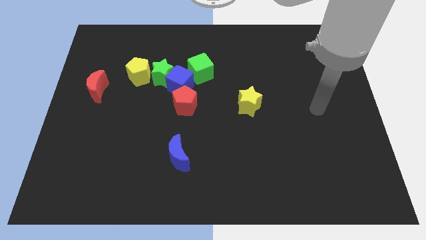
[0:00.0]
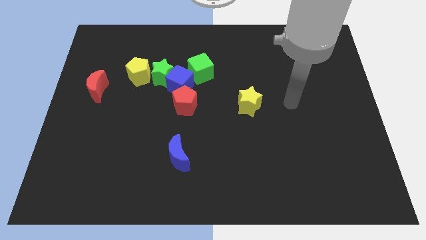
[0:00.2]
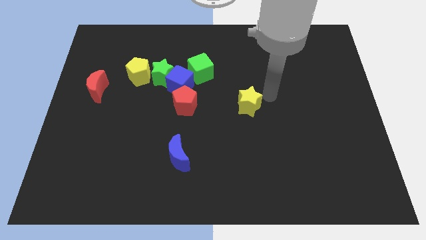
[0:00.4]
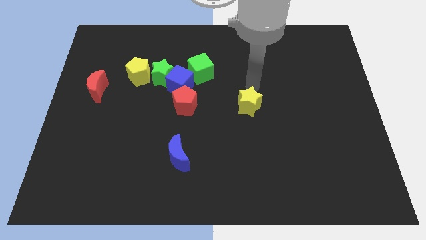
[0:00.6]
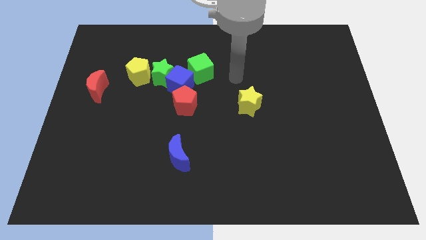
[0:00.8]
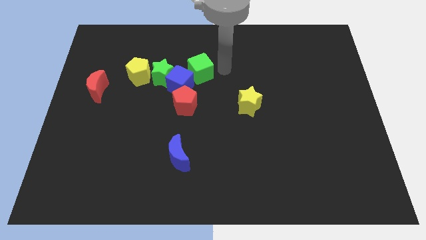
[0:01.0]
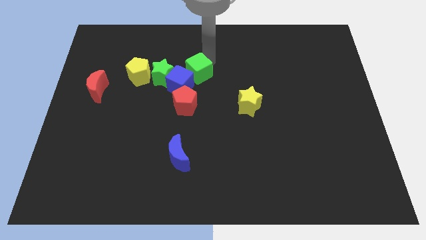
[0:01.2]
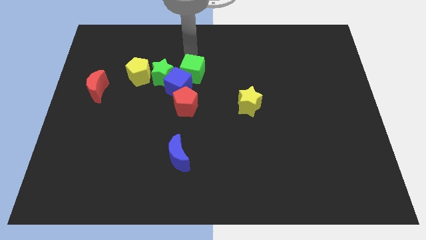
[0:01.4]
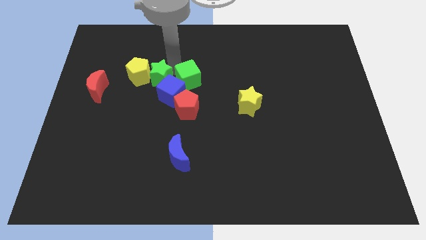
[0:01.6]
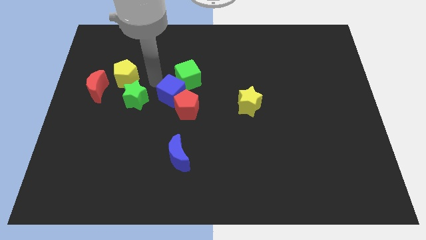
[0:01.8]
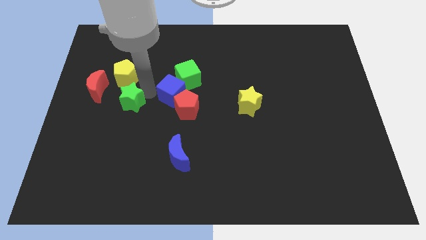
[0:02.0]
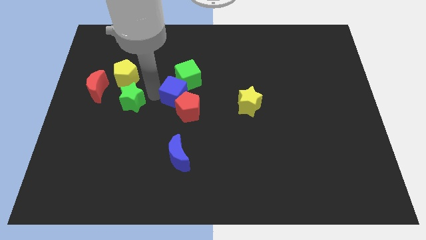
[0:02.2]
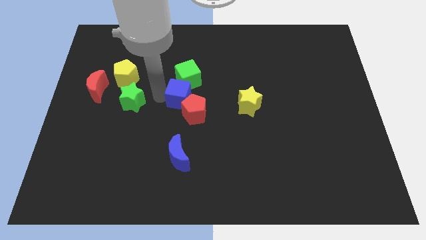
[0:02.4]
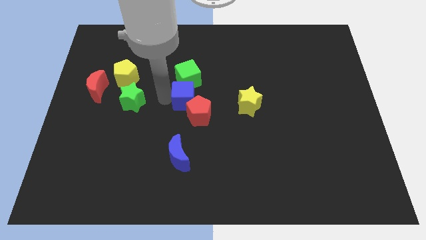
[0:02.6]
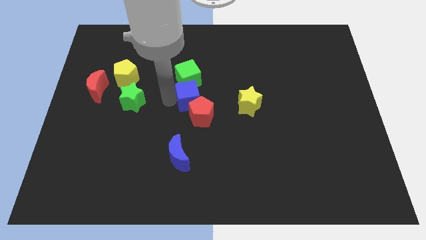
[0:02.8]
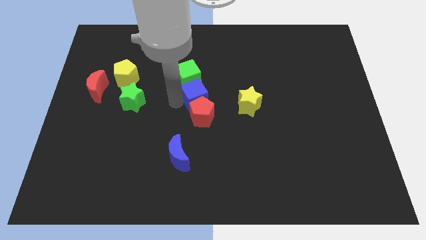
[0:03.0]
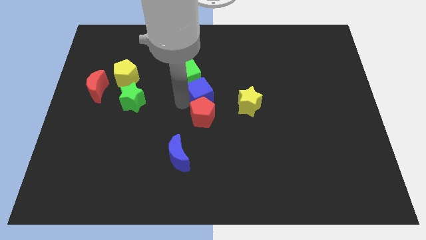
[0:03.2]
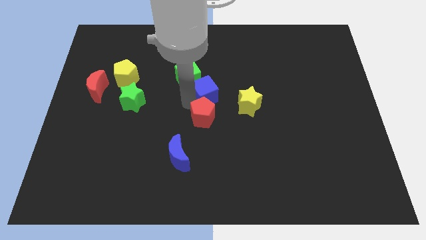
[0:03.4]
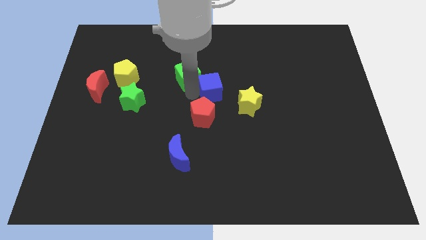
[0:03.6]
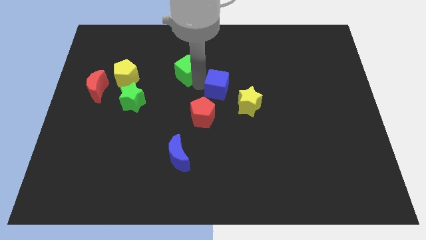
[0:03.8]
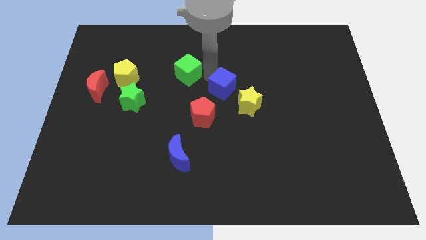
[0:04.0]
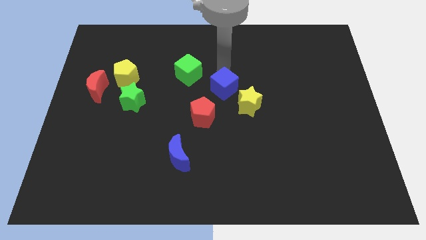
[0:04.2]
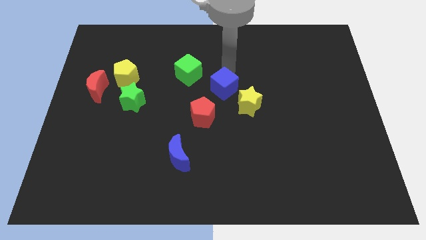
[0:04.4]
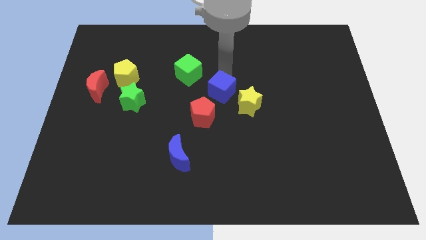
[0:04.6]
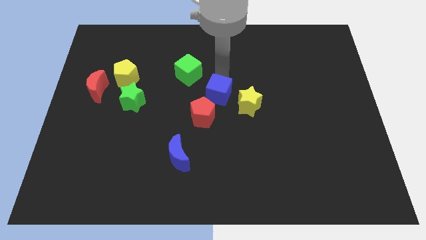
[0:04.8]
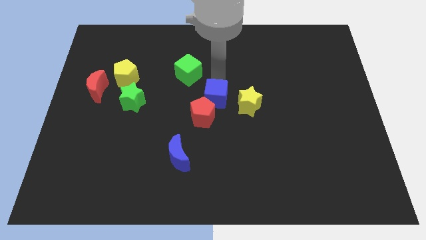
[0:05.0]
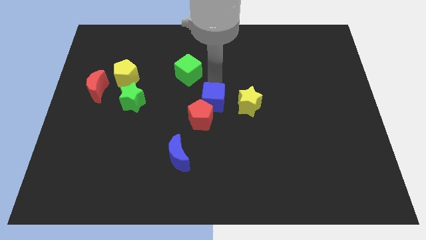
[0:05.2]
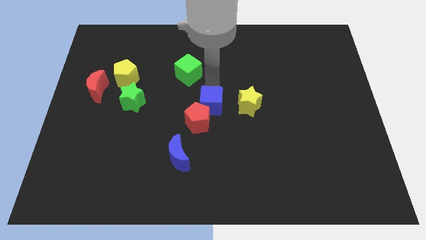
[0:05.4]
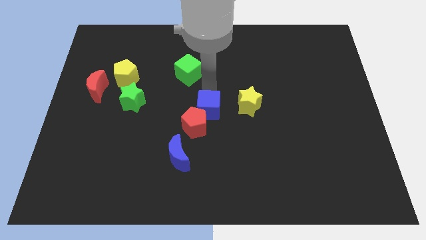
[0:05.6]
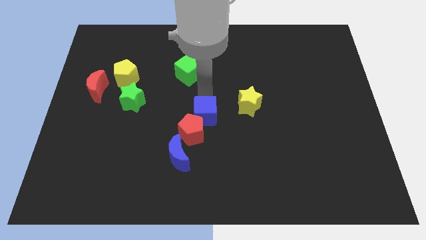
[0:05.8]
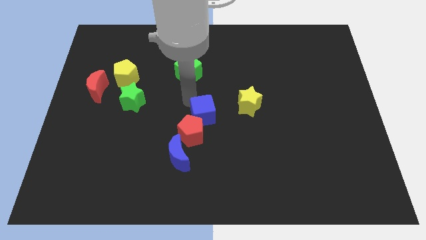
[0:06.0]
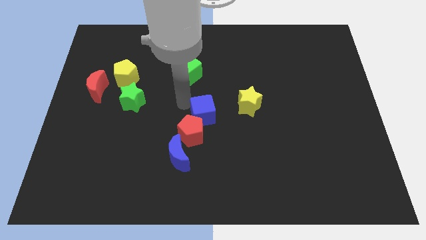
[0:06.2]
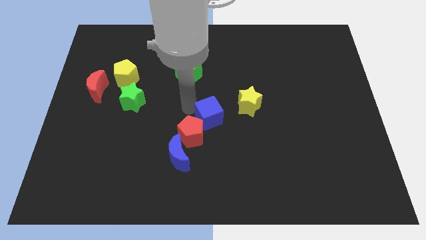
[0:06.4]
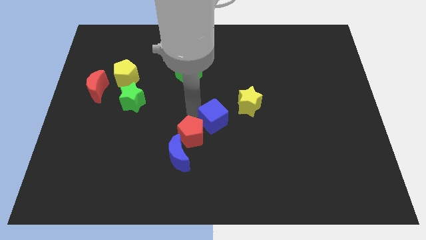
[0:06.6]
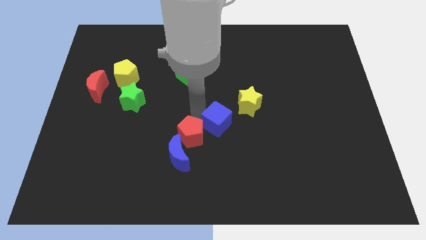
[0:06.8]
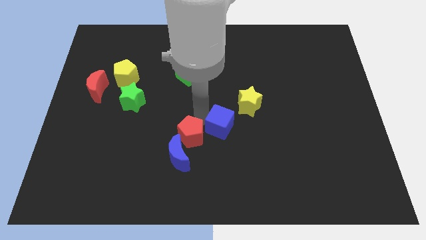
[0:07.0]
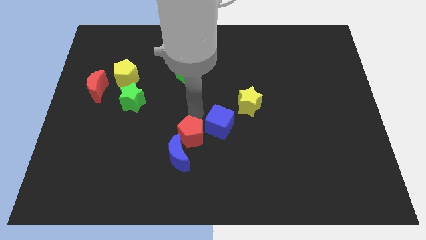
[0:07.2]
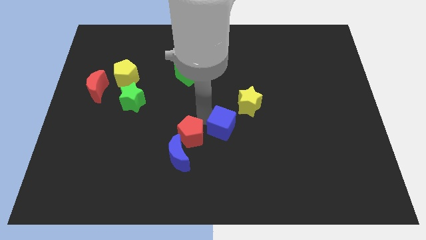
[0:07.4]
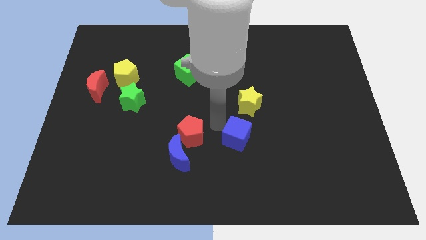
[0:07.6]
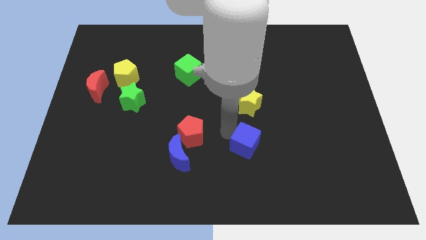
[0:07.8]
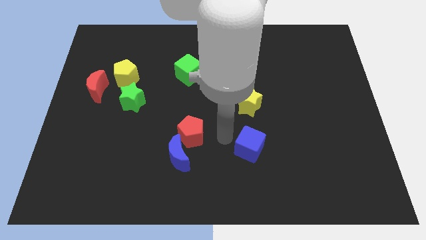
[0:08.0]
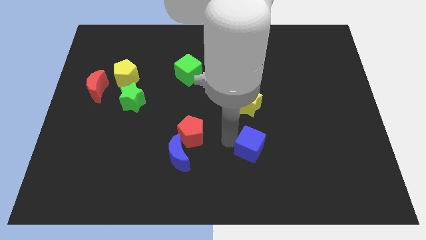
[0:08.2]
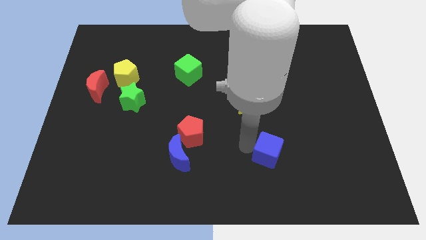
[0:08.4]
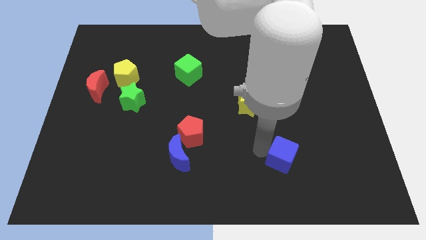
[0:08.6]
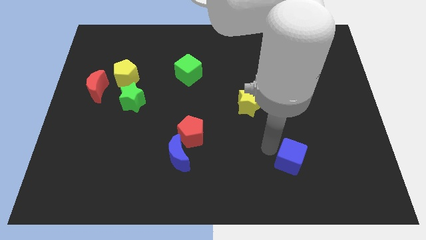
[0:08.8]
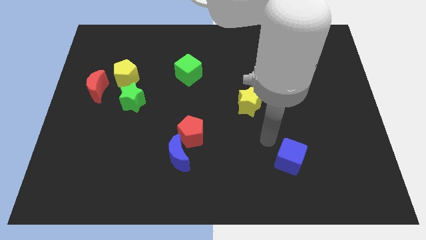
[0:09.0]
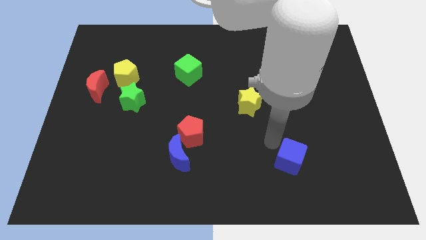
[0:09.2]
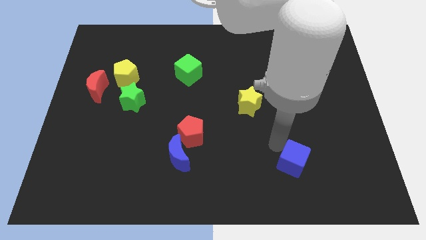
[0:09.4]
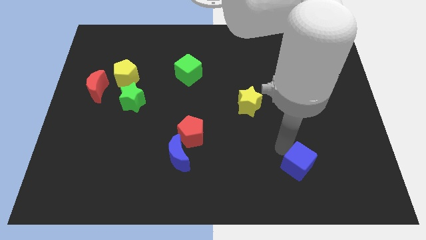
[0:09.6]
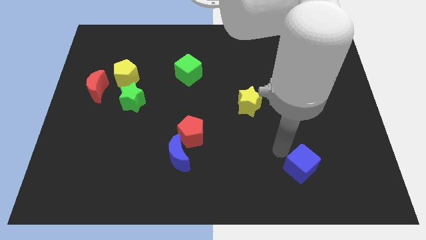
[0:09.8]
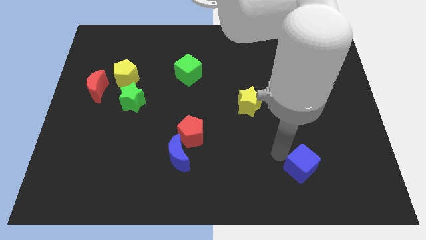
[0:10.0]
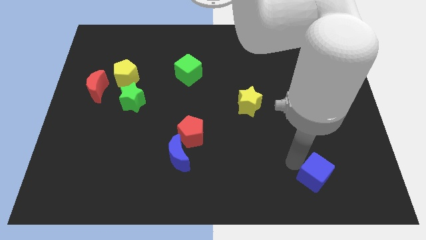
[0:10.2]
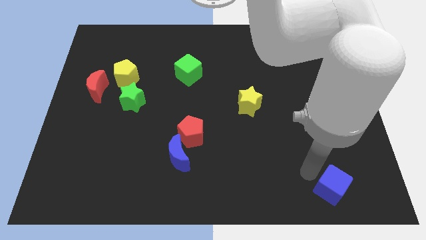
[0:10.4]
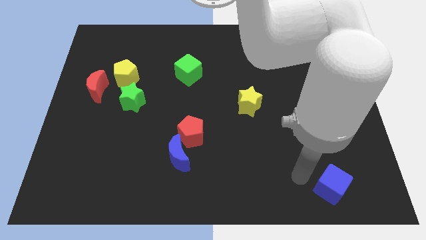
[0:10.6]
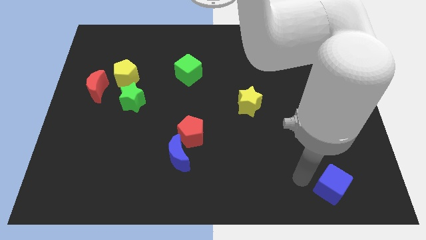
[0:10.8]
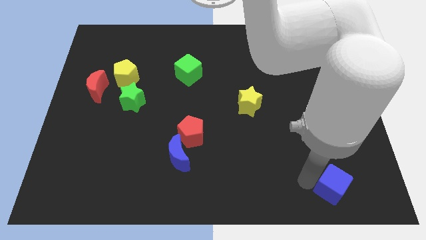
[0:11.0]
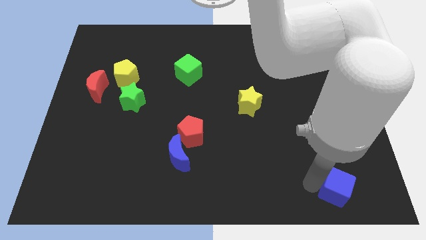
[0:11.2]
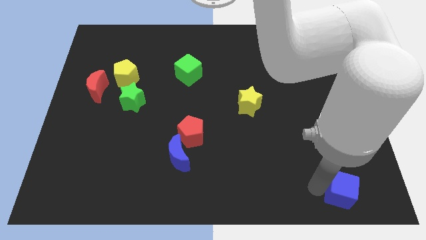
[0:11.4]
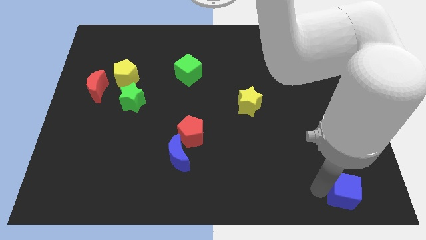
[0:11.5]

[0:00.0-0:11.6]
put the blue cube to the bottom right
